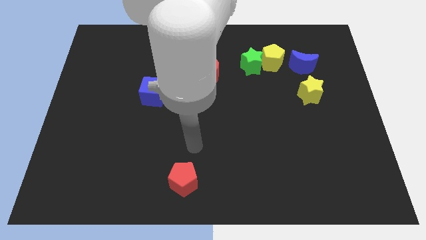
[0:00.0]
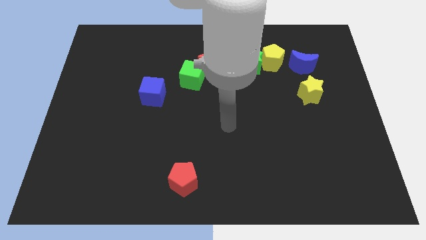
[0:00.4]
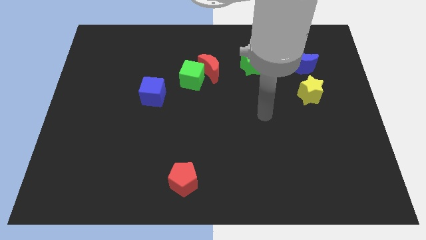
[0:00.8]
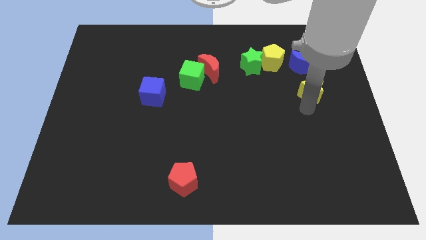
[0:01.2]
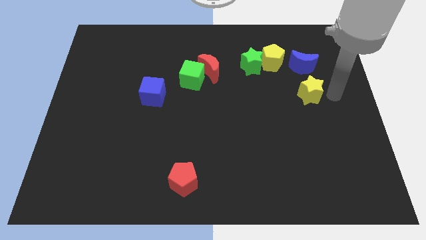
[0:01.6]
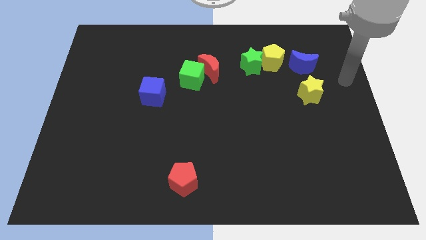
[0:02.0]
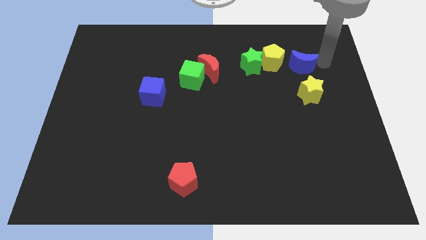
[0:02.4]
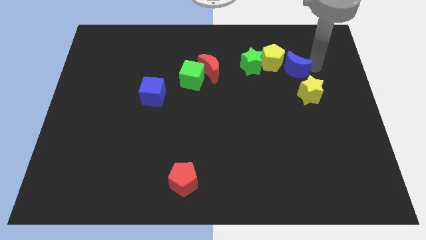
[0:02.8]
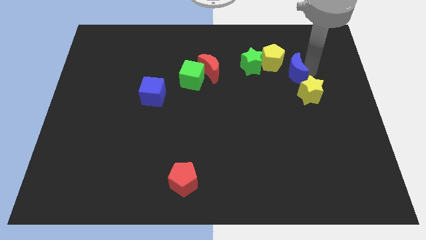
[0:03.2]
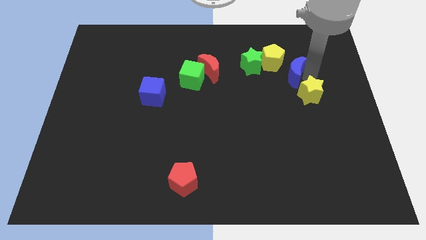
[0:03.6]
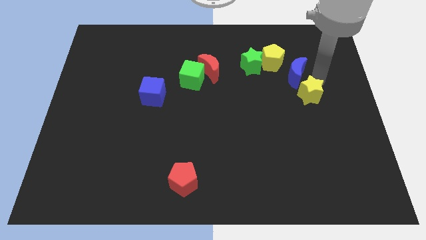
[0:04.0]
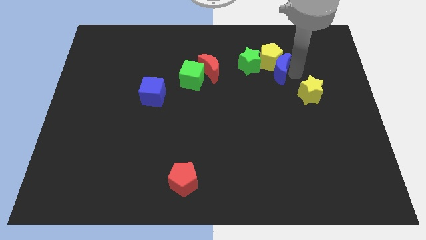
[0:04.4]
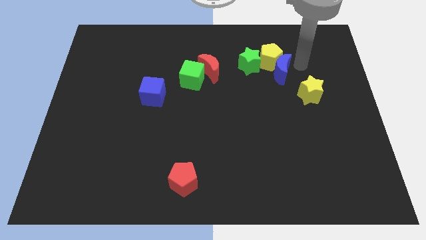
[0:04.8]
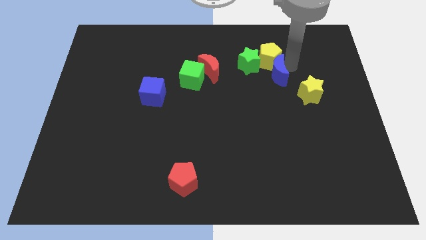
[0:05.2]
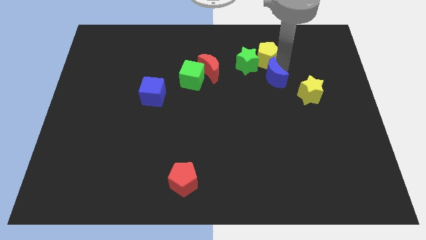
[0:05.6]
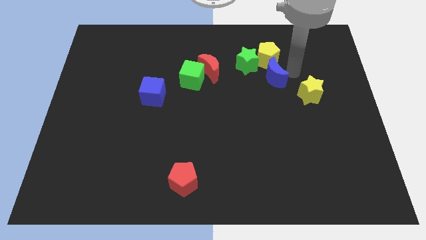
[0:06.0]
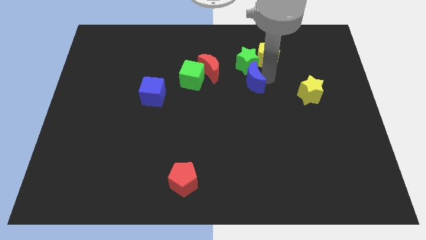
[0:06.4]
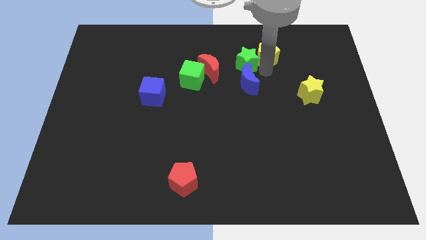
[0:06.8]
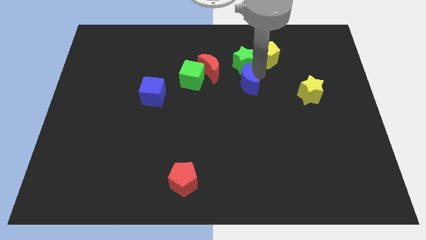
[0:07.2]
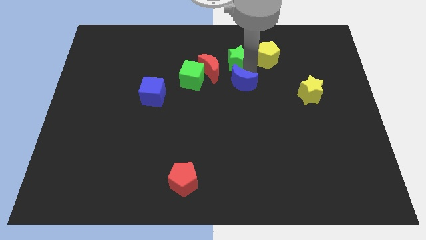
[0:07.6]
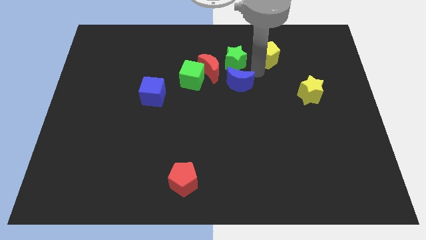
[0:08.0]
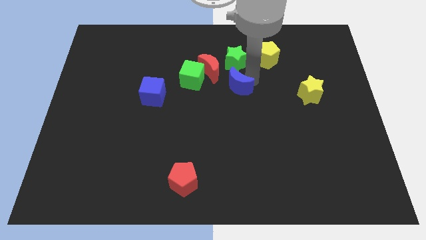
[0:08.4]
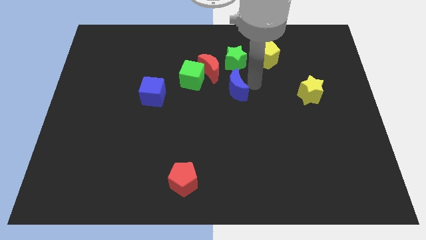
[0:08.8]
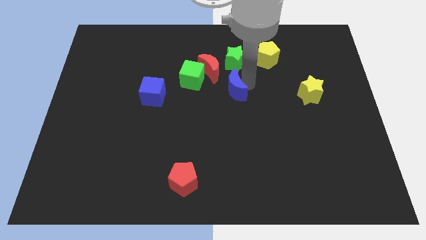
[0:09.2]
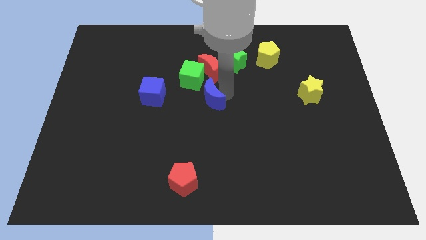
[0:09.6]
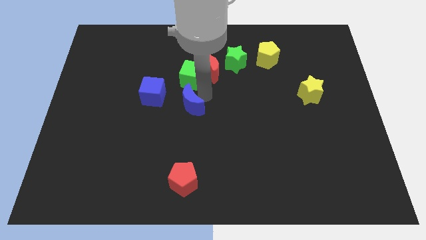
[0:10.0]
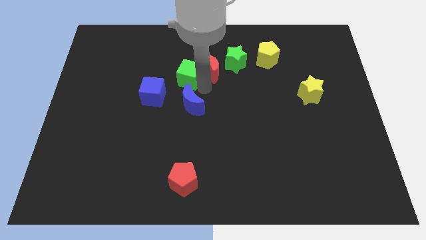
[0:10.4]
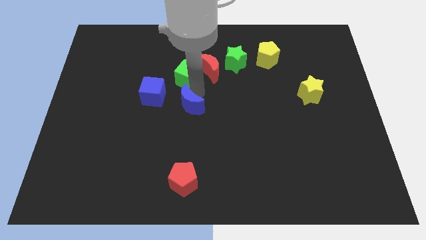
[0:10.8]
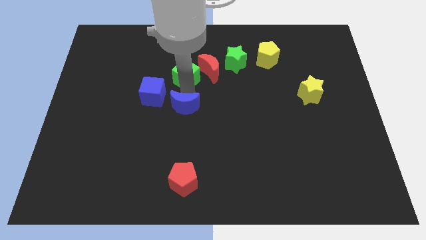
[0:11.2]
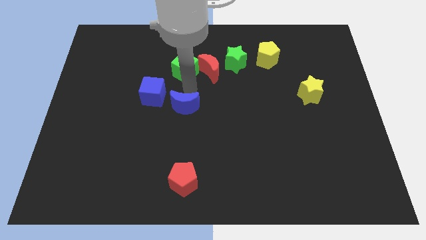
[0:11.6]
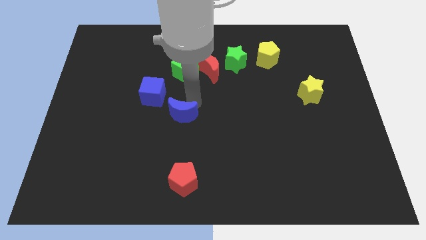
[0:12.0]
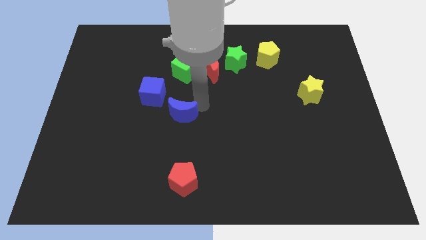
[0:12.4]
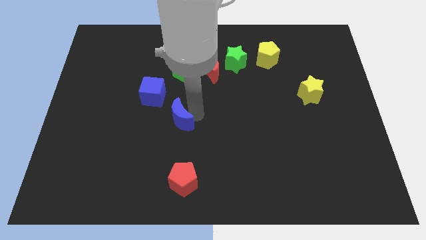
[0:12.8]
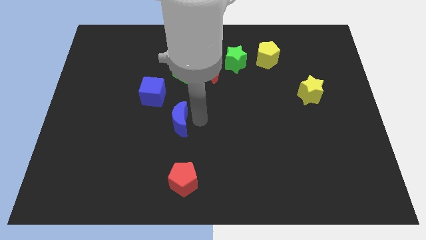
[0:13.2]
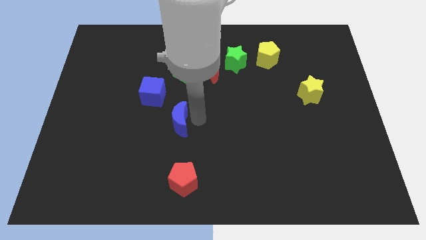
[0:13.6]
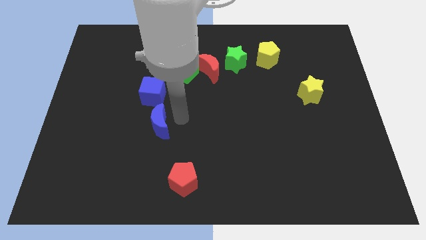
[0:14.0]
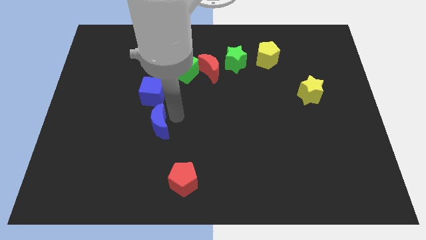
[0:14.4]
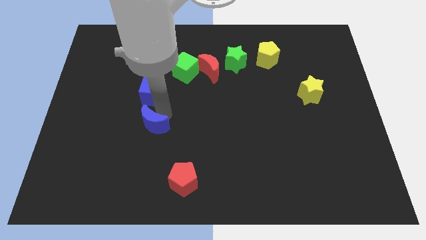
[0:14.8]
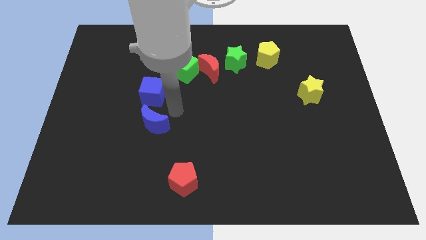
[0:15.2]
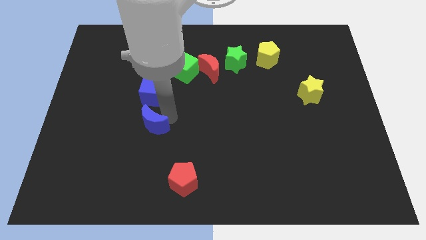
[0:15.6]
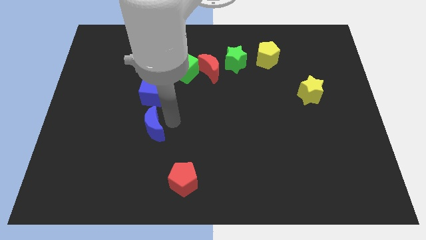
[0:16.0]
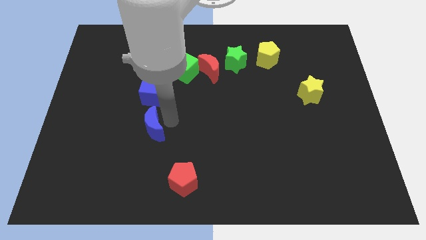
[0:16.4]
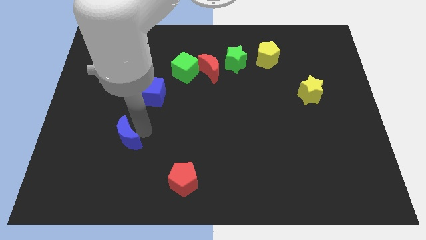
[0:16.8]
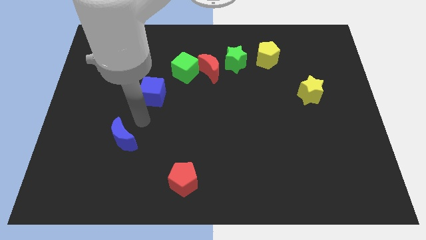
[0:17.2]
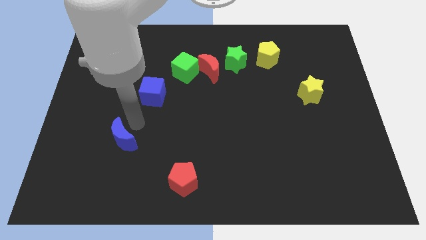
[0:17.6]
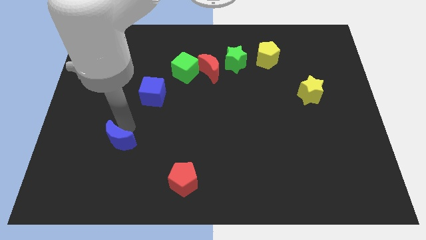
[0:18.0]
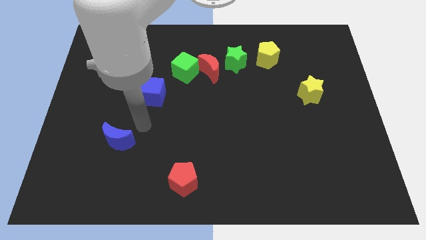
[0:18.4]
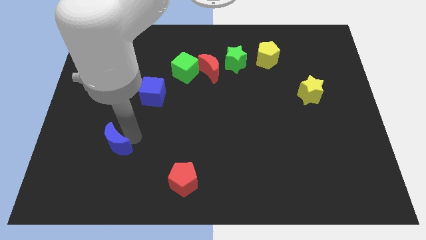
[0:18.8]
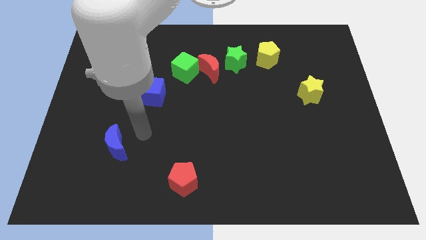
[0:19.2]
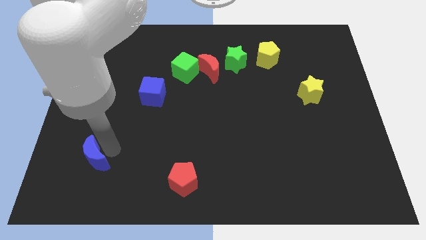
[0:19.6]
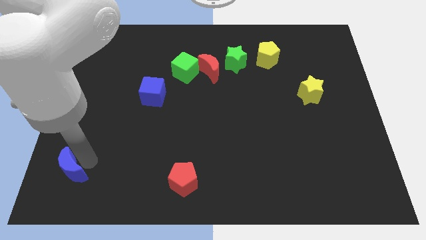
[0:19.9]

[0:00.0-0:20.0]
push the blue moon to the bottom left of the board

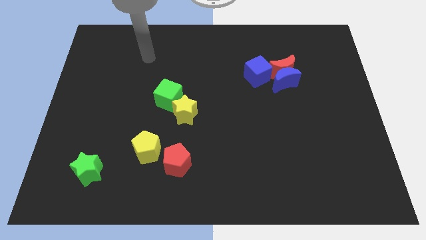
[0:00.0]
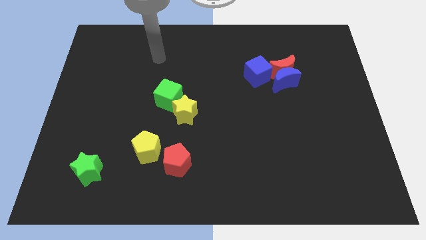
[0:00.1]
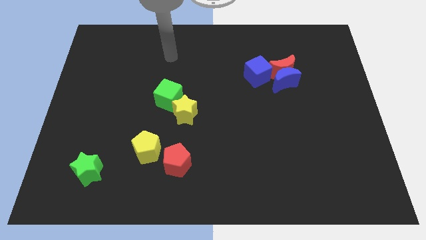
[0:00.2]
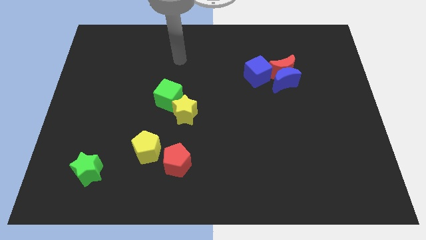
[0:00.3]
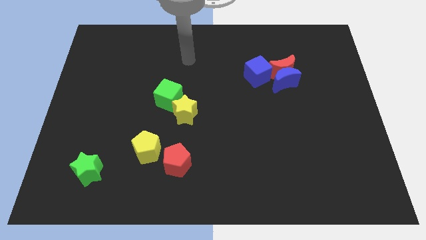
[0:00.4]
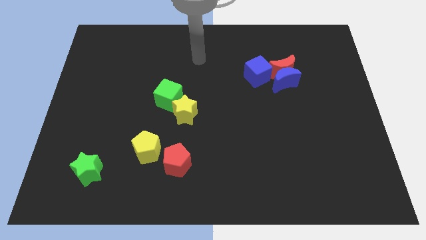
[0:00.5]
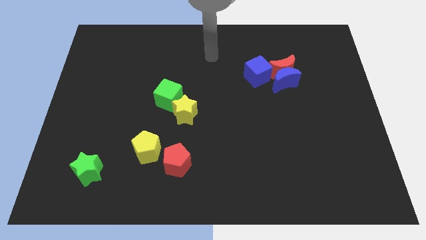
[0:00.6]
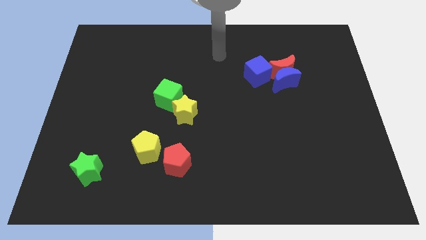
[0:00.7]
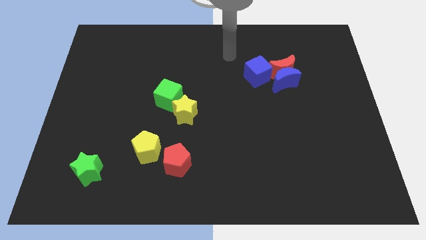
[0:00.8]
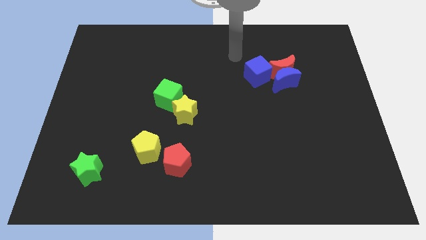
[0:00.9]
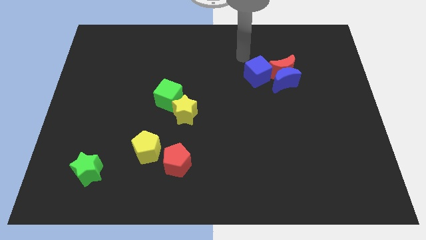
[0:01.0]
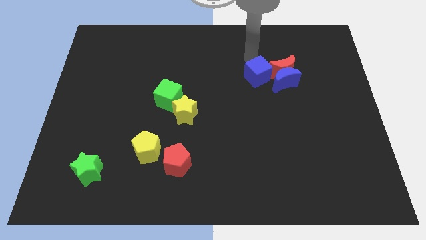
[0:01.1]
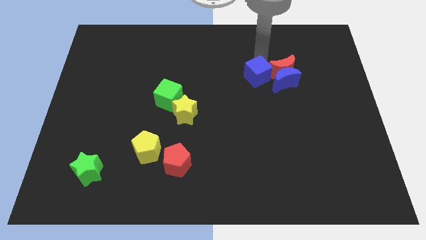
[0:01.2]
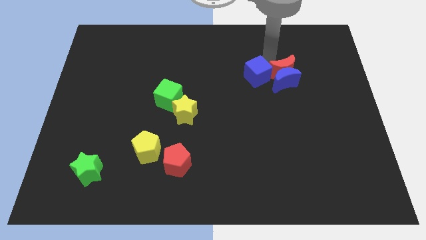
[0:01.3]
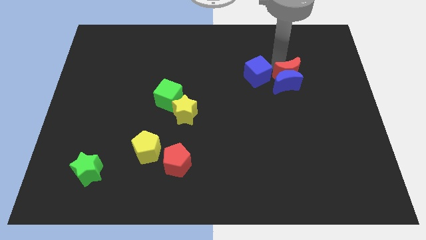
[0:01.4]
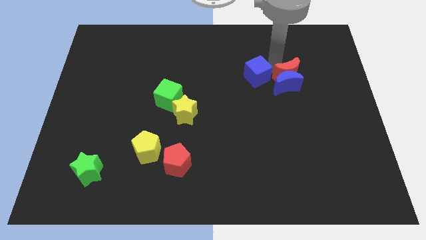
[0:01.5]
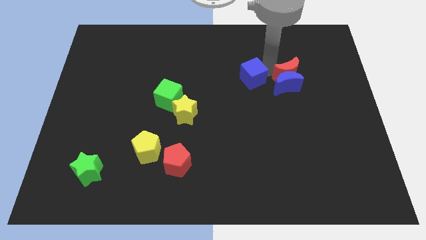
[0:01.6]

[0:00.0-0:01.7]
push the blue cube to the center of the board
